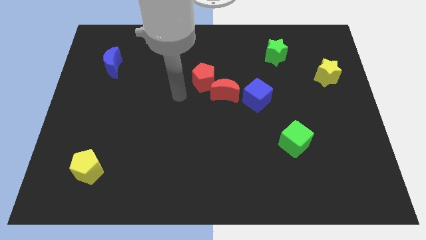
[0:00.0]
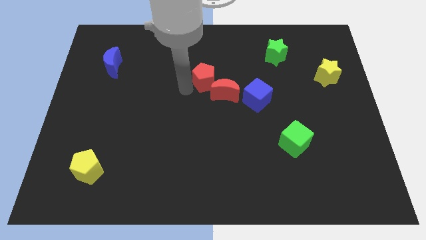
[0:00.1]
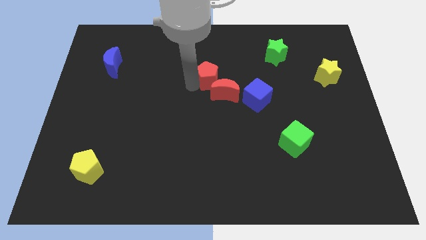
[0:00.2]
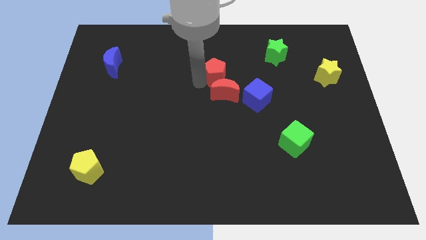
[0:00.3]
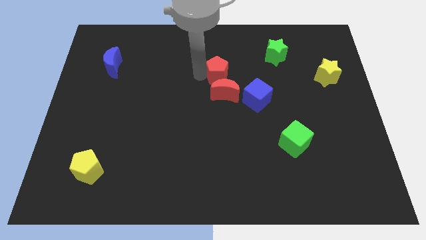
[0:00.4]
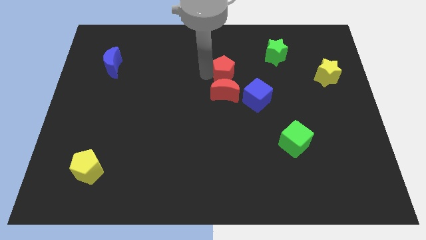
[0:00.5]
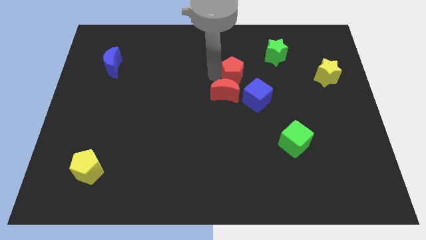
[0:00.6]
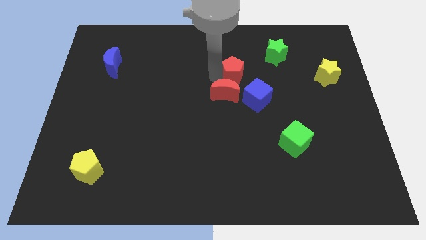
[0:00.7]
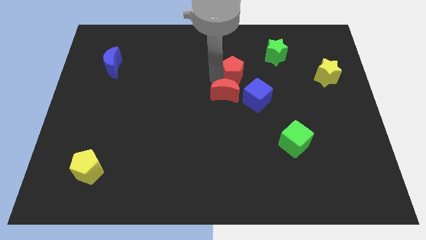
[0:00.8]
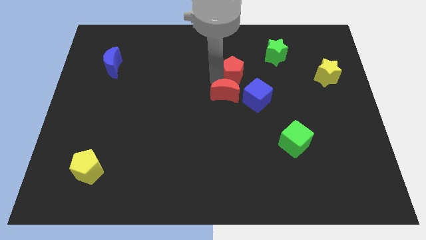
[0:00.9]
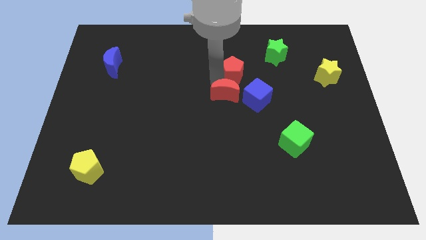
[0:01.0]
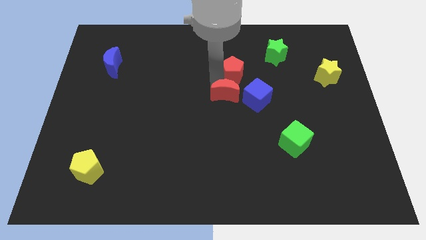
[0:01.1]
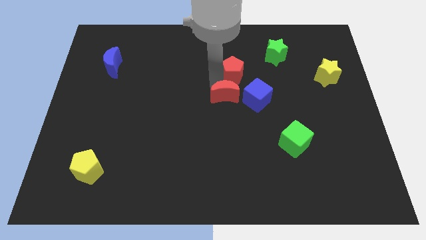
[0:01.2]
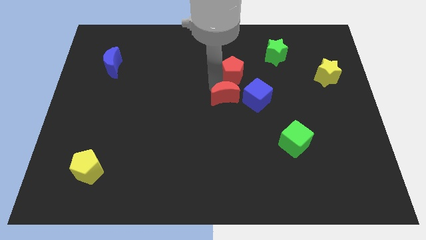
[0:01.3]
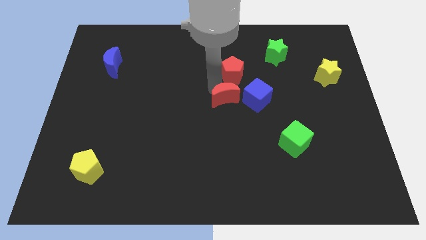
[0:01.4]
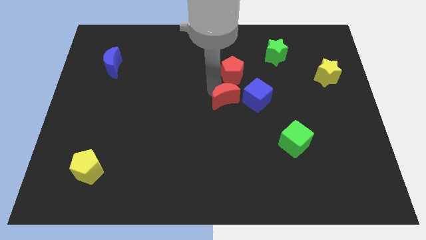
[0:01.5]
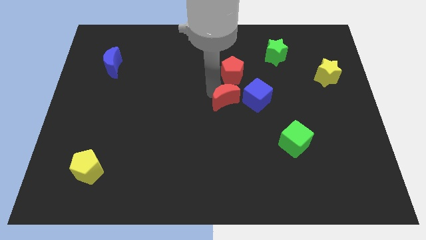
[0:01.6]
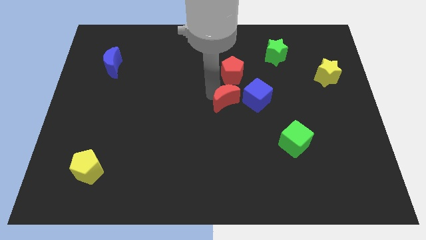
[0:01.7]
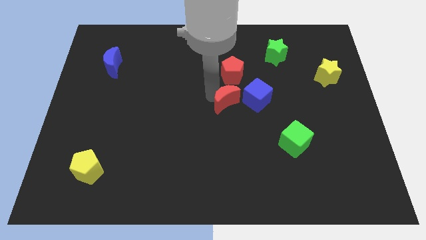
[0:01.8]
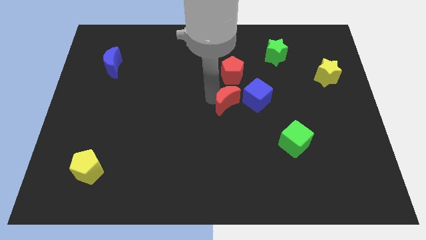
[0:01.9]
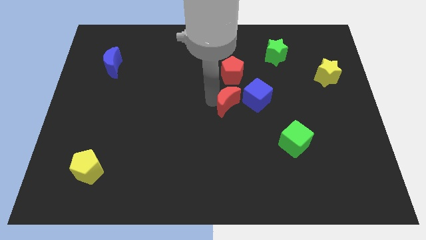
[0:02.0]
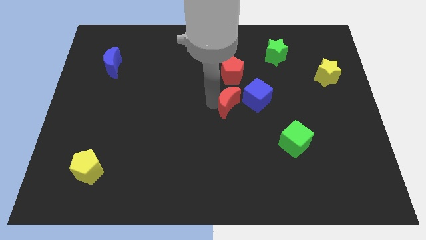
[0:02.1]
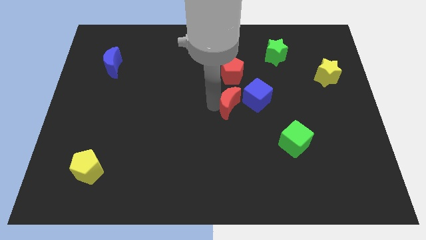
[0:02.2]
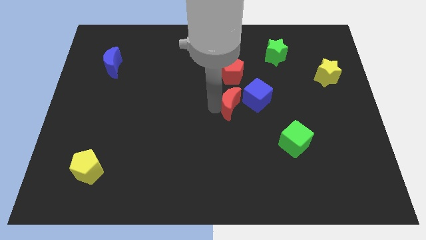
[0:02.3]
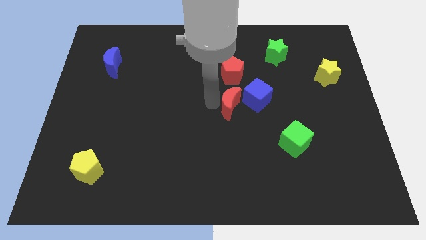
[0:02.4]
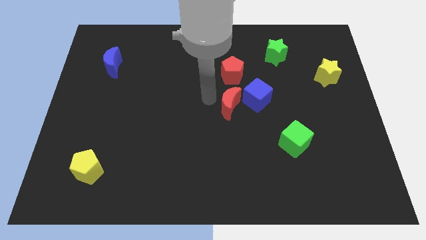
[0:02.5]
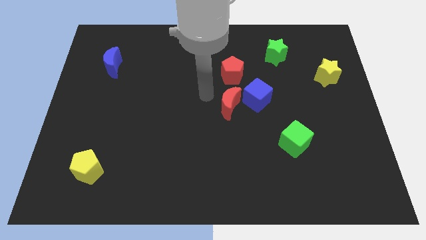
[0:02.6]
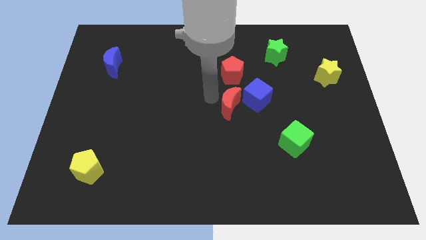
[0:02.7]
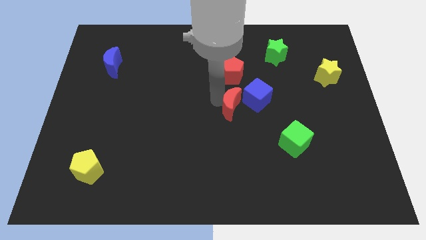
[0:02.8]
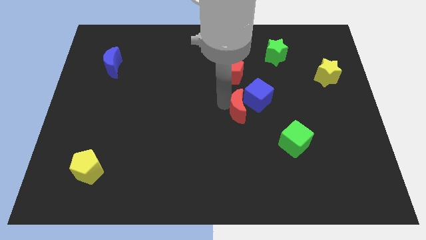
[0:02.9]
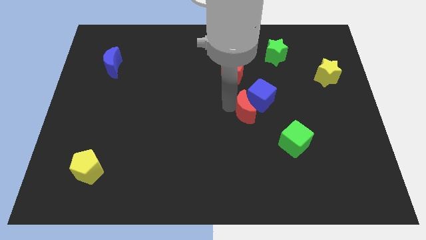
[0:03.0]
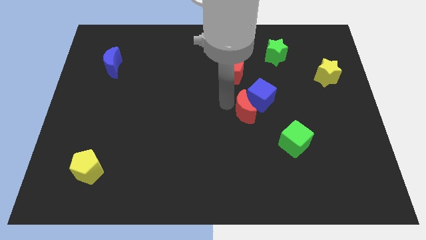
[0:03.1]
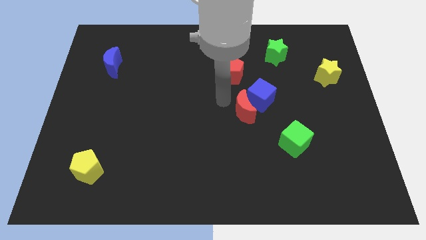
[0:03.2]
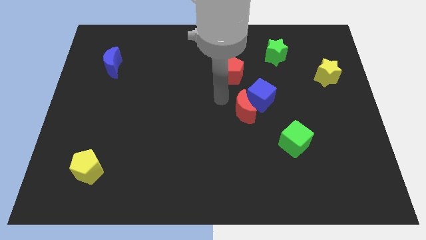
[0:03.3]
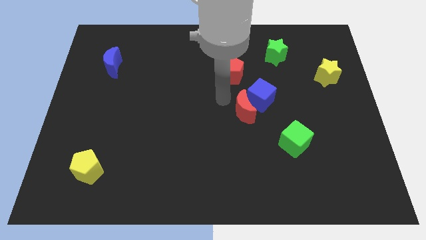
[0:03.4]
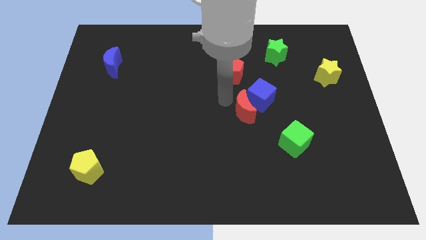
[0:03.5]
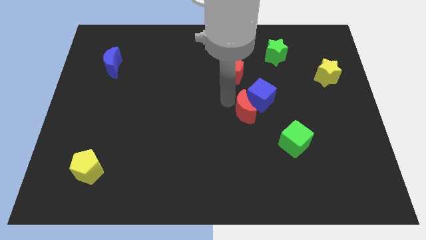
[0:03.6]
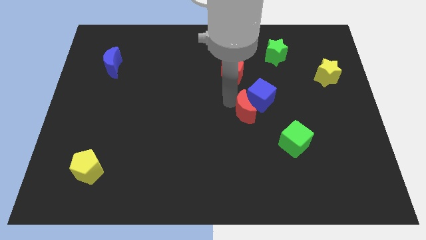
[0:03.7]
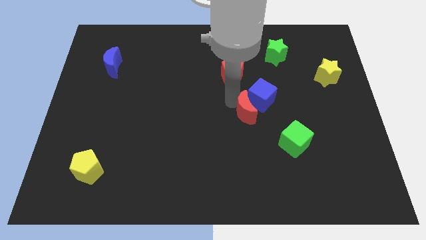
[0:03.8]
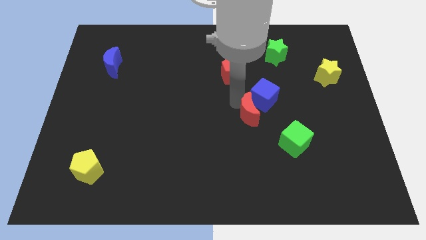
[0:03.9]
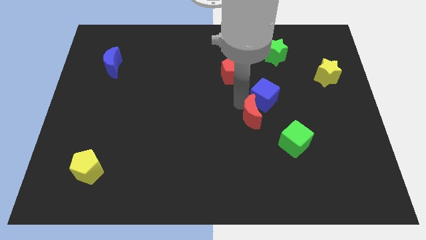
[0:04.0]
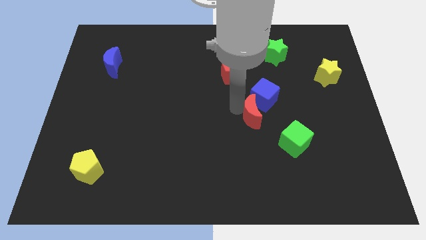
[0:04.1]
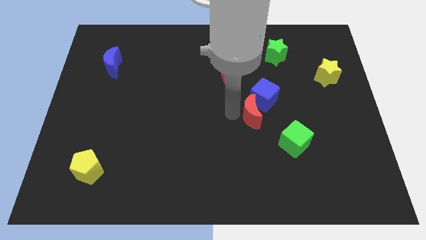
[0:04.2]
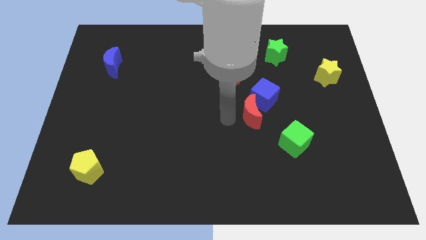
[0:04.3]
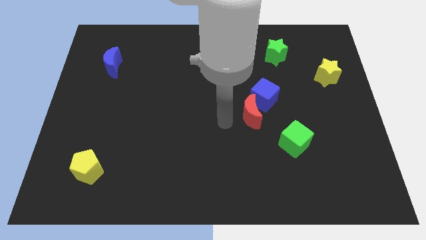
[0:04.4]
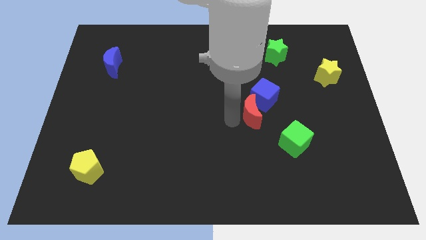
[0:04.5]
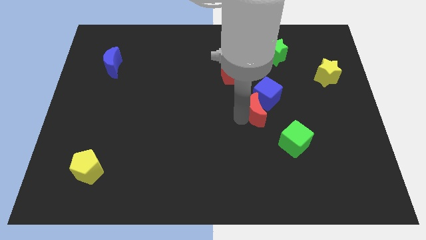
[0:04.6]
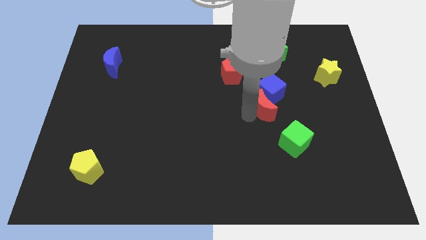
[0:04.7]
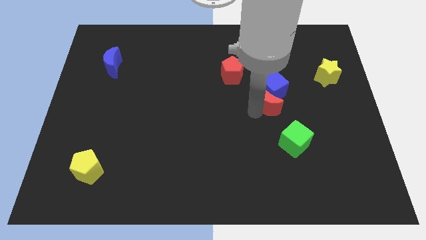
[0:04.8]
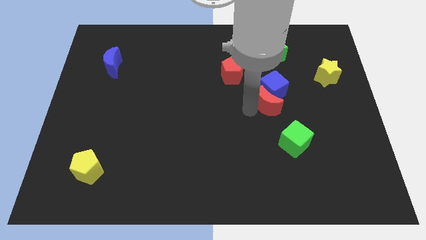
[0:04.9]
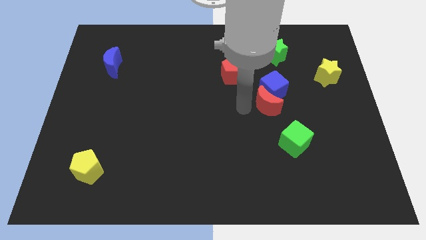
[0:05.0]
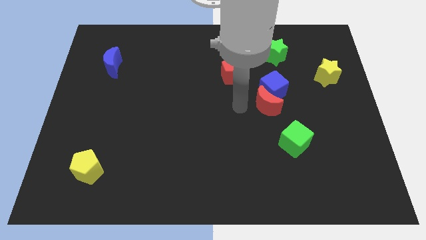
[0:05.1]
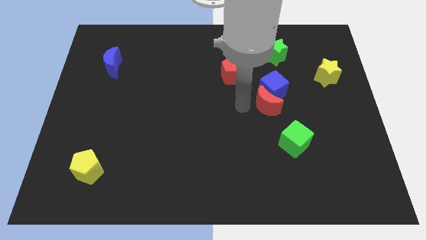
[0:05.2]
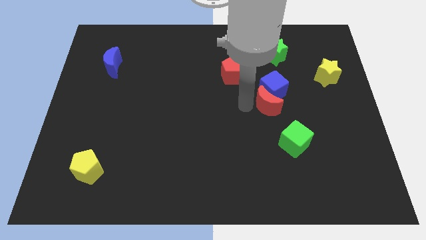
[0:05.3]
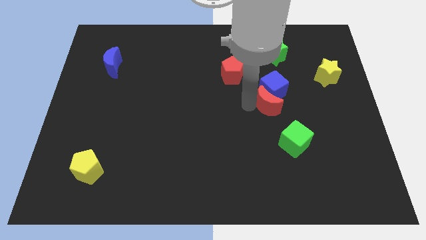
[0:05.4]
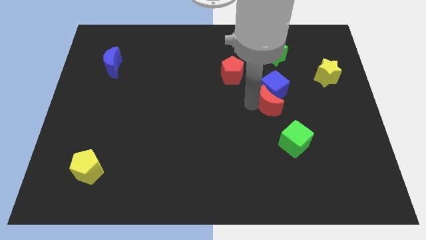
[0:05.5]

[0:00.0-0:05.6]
put the red moon to the top side of the green cube
